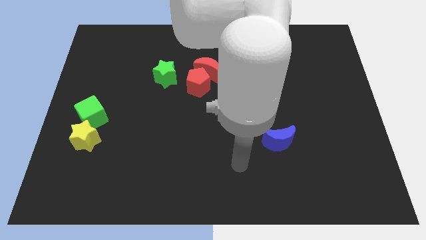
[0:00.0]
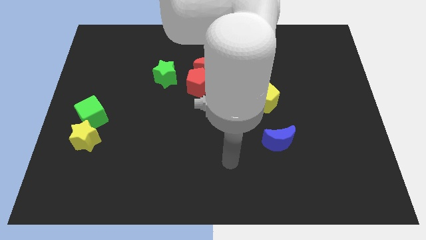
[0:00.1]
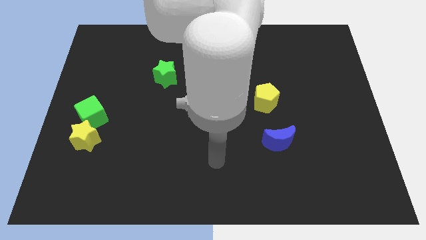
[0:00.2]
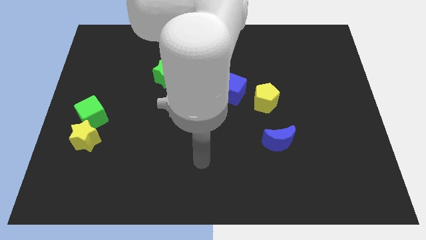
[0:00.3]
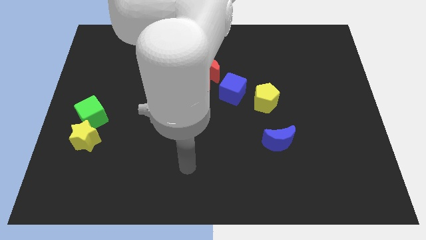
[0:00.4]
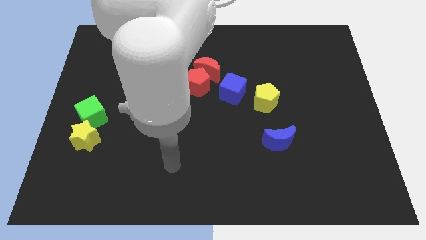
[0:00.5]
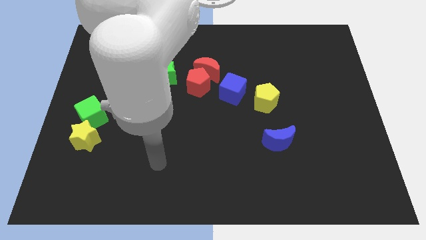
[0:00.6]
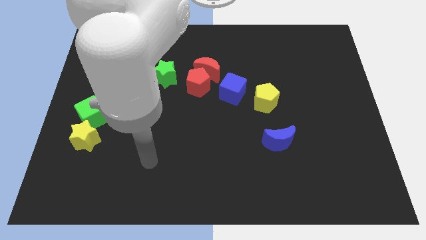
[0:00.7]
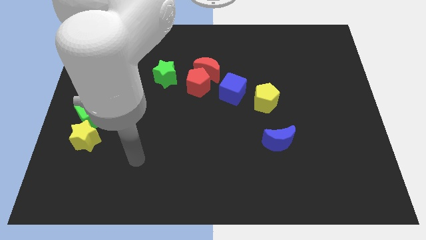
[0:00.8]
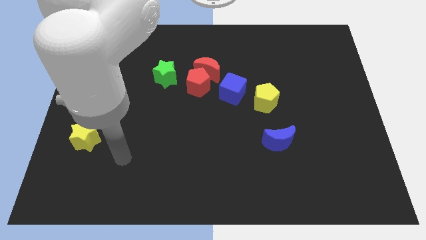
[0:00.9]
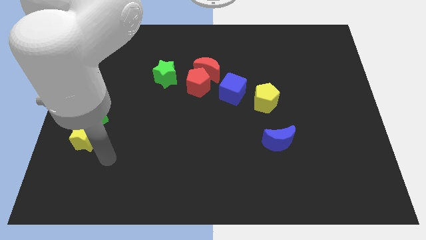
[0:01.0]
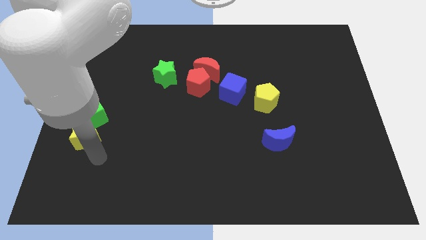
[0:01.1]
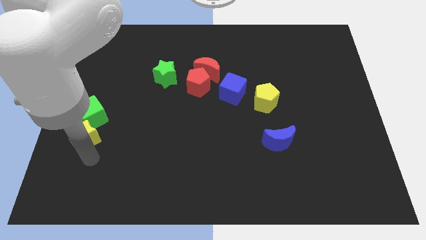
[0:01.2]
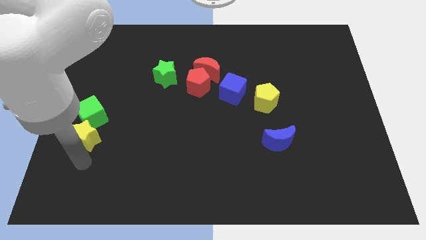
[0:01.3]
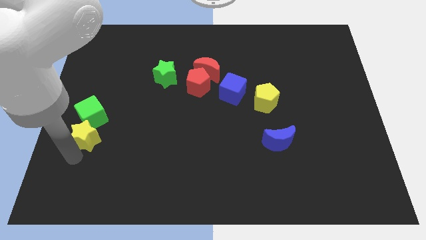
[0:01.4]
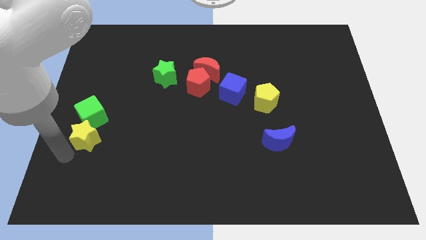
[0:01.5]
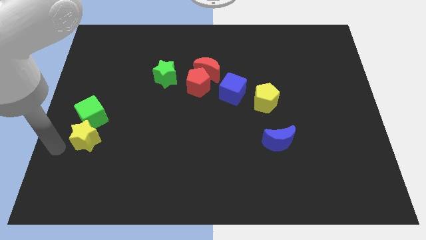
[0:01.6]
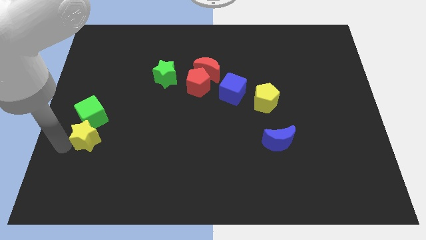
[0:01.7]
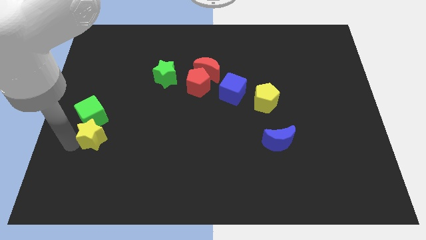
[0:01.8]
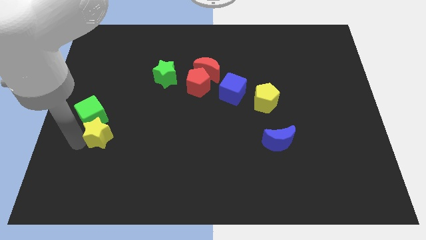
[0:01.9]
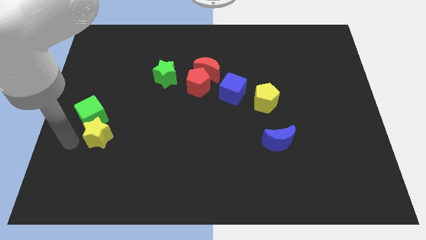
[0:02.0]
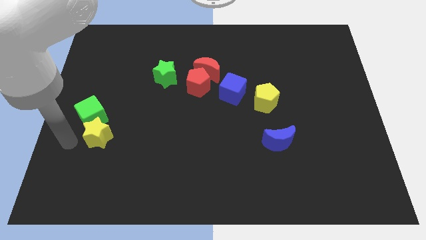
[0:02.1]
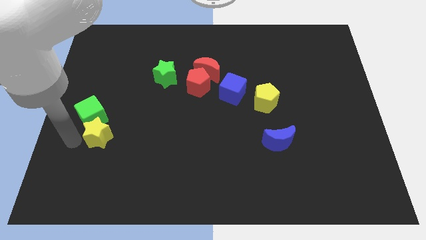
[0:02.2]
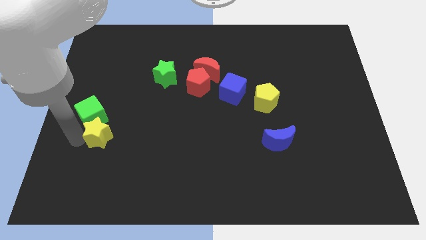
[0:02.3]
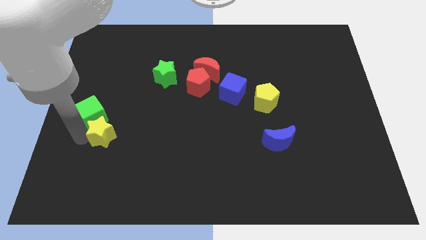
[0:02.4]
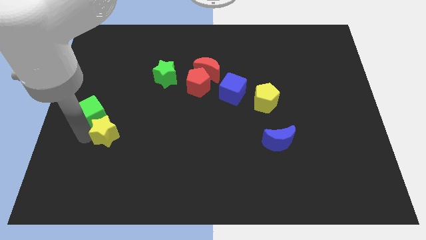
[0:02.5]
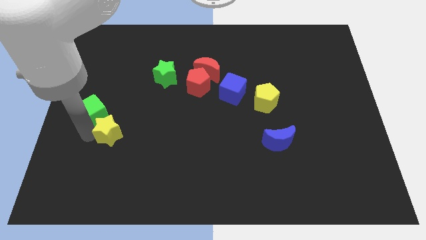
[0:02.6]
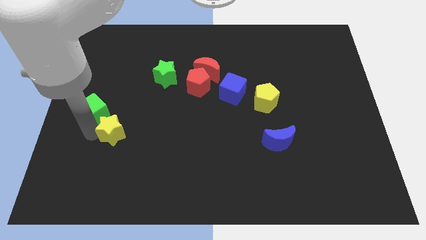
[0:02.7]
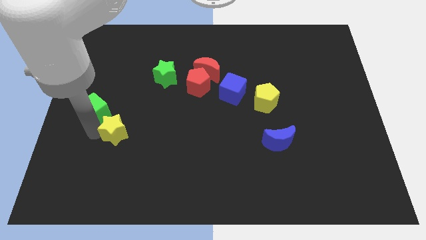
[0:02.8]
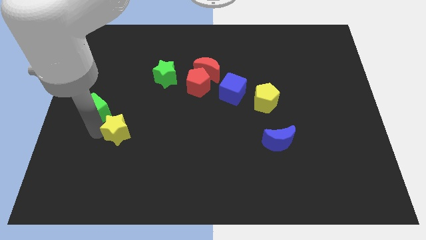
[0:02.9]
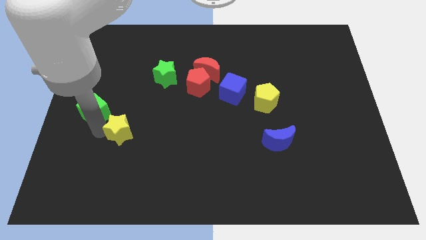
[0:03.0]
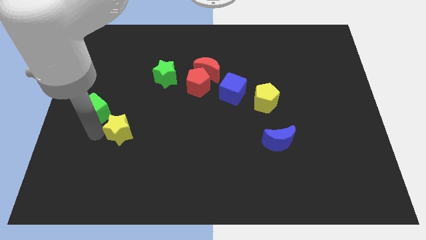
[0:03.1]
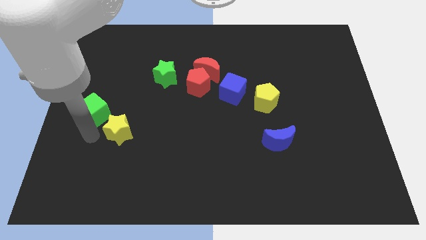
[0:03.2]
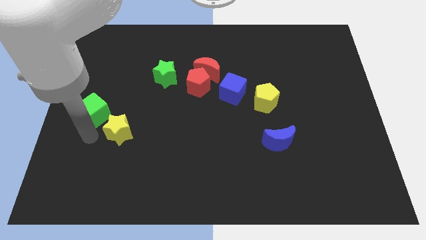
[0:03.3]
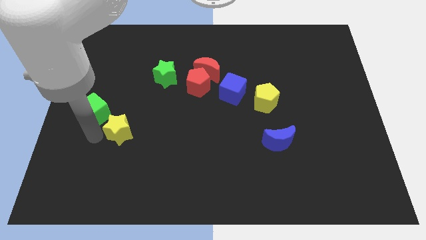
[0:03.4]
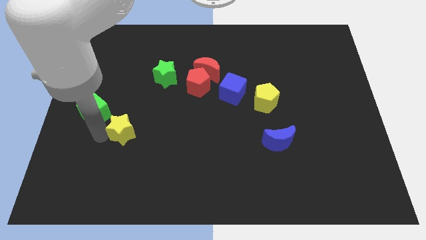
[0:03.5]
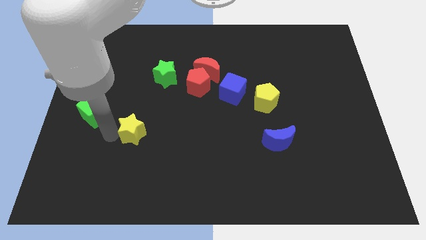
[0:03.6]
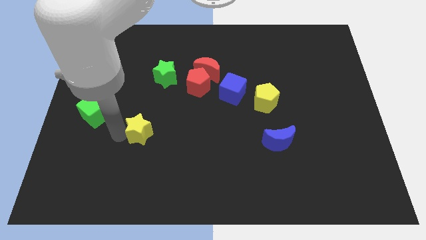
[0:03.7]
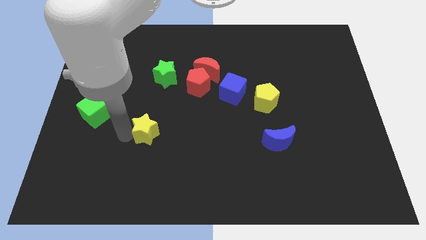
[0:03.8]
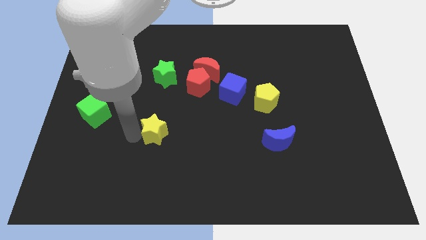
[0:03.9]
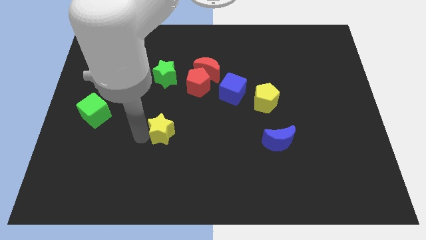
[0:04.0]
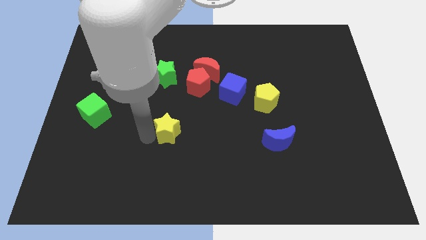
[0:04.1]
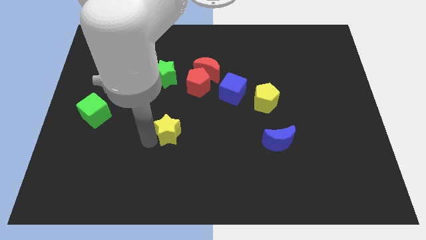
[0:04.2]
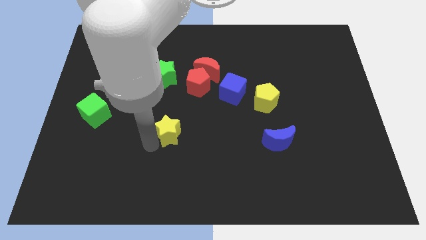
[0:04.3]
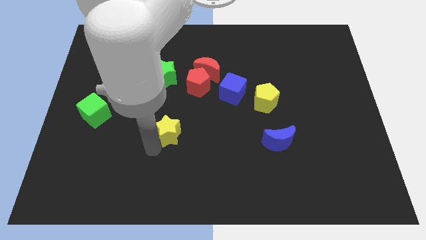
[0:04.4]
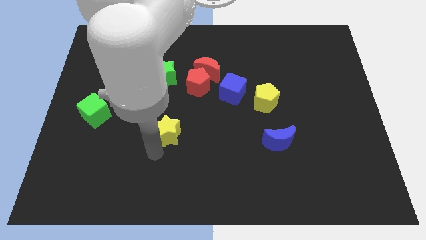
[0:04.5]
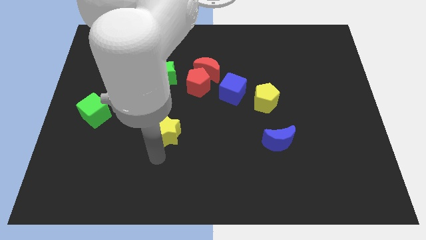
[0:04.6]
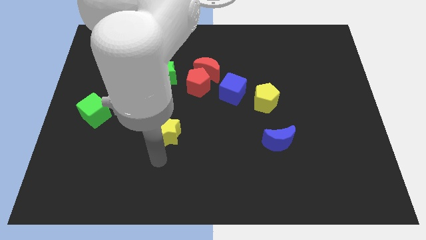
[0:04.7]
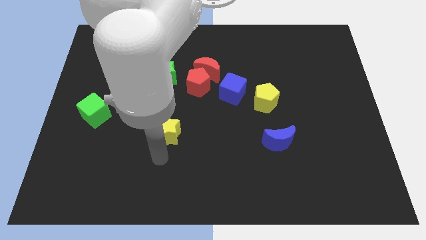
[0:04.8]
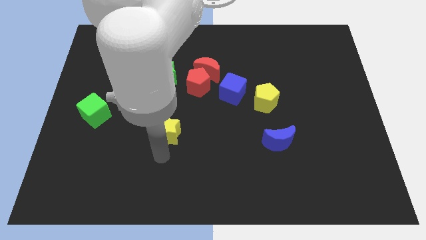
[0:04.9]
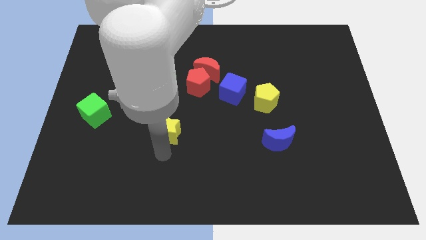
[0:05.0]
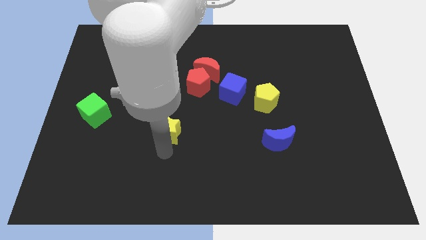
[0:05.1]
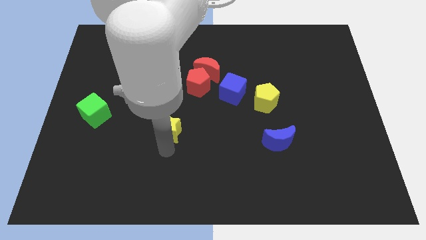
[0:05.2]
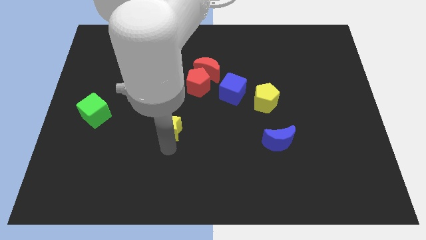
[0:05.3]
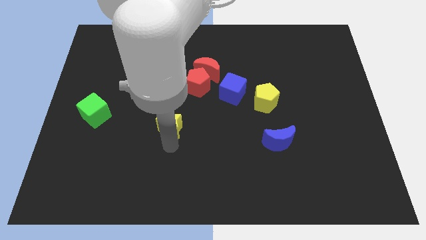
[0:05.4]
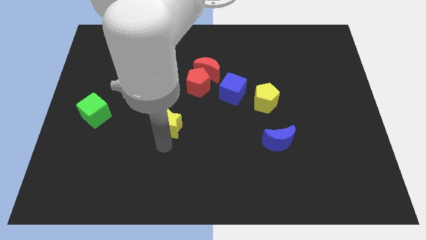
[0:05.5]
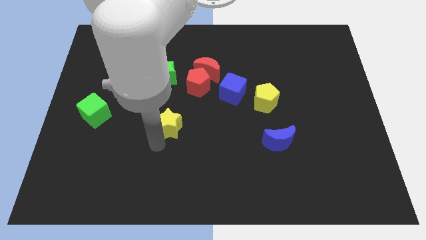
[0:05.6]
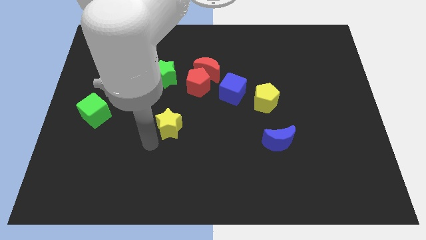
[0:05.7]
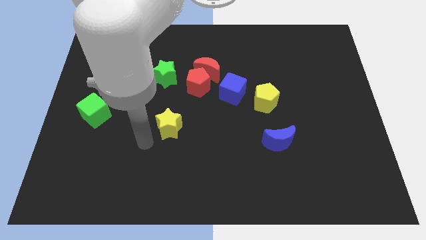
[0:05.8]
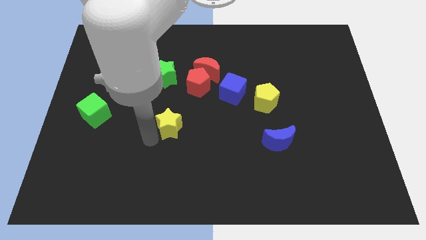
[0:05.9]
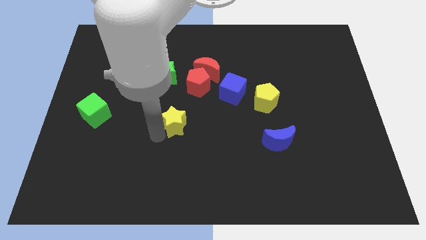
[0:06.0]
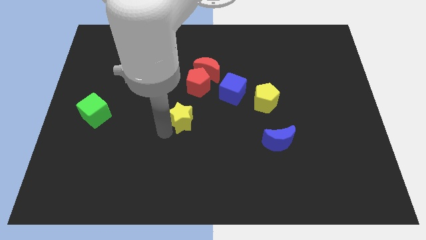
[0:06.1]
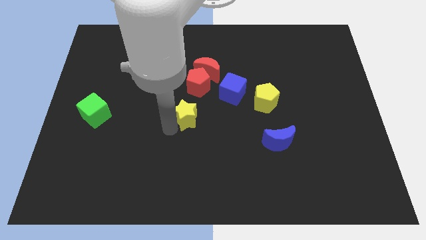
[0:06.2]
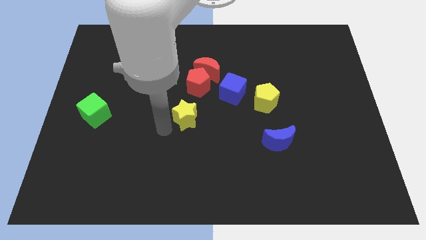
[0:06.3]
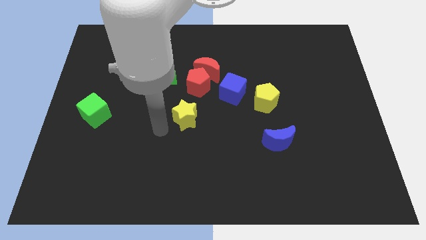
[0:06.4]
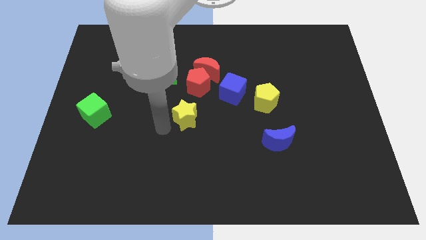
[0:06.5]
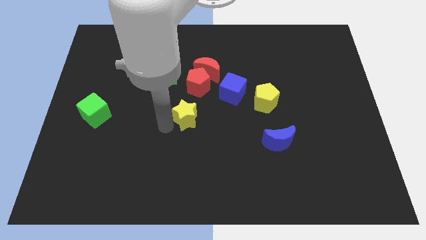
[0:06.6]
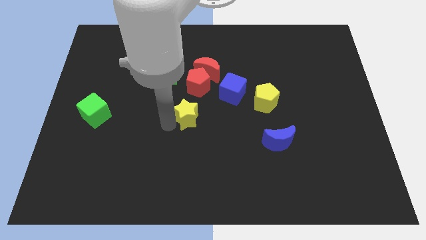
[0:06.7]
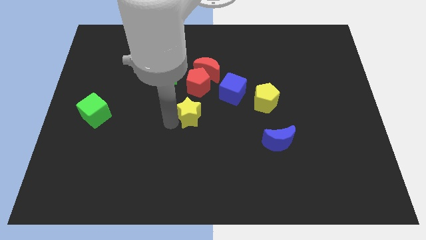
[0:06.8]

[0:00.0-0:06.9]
push the yellow star to the bottom left side of the blue cube
